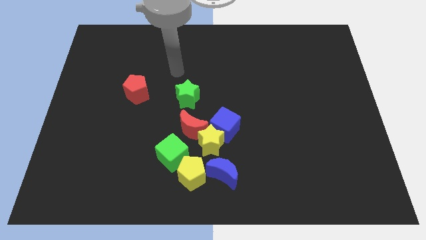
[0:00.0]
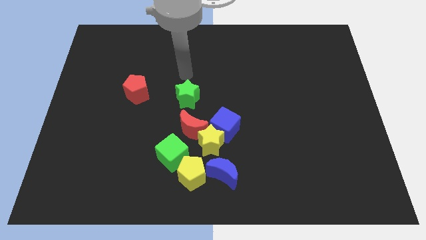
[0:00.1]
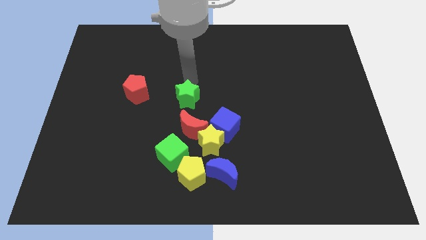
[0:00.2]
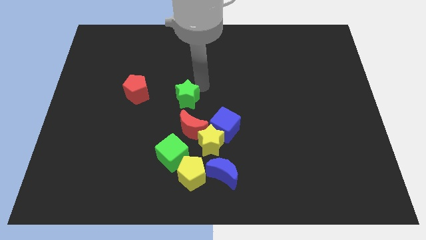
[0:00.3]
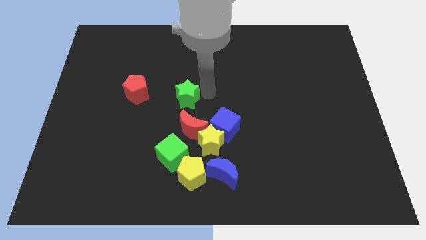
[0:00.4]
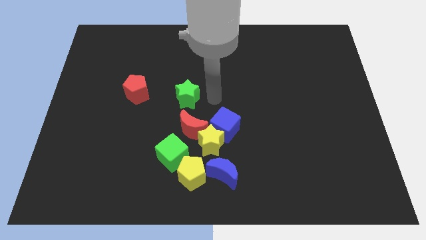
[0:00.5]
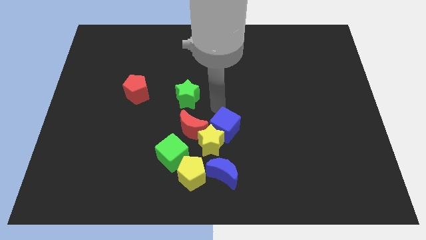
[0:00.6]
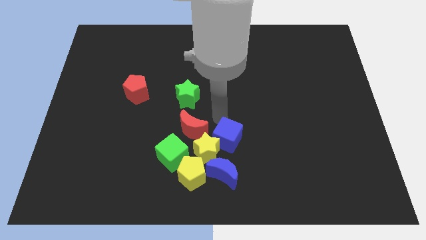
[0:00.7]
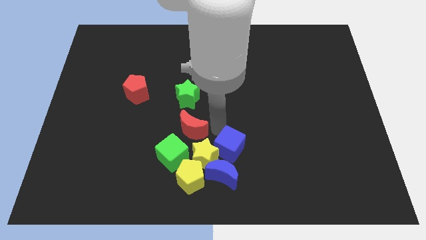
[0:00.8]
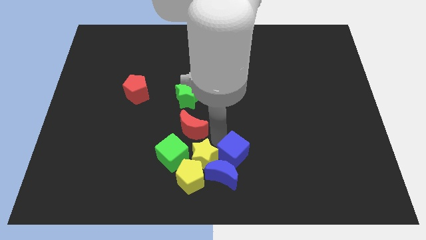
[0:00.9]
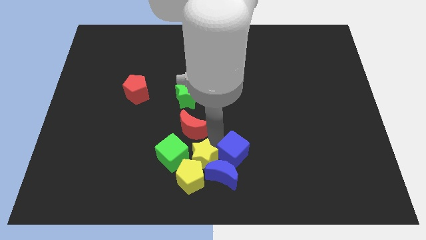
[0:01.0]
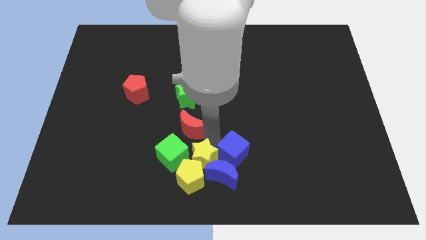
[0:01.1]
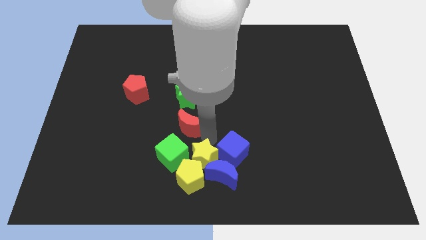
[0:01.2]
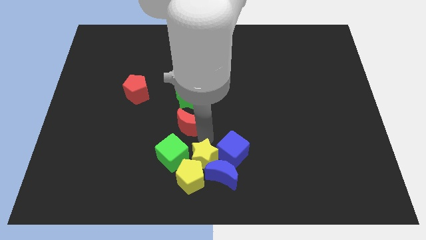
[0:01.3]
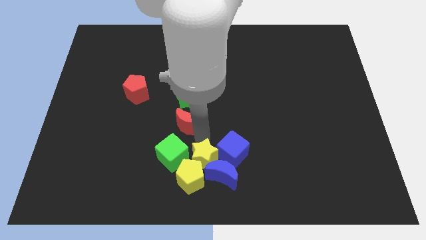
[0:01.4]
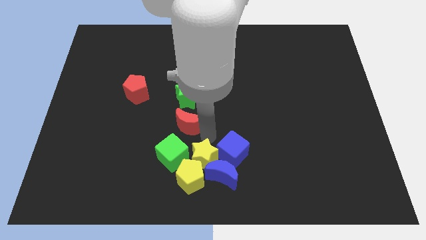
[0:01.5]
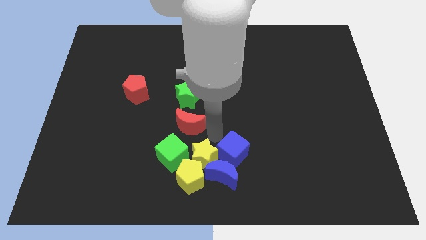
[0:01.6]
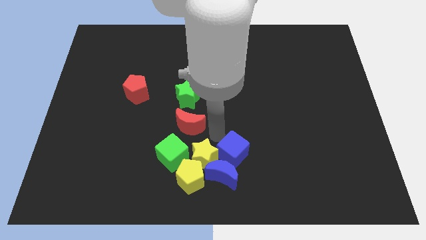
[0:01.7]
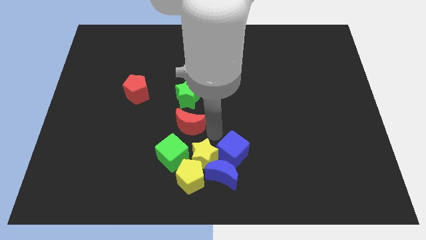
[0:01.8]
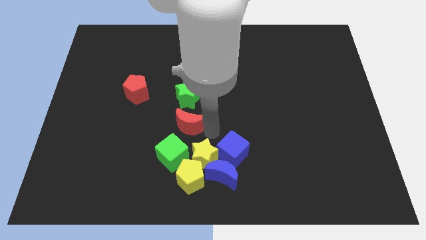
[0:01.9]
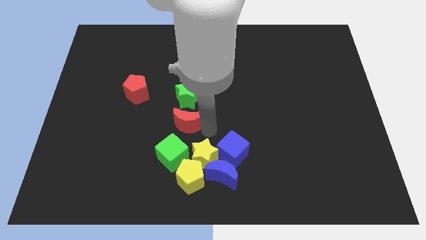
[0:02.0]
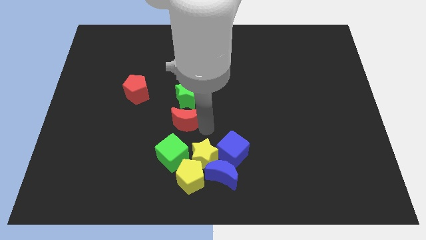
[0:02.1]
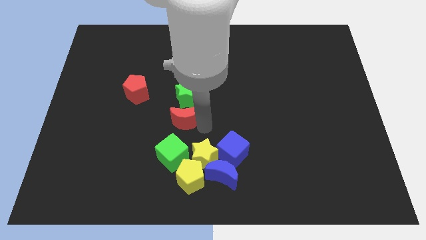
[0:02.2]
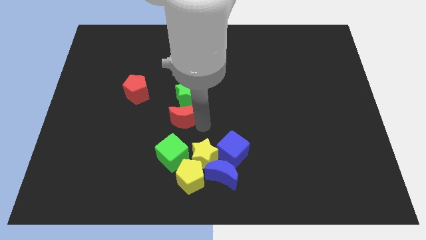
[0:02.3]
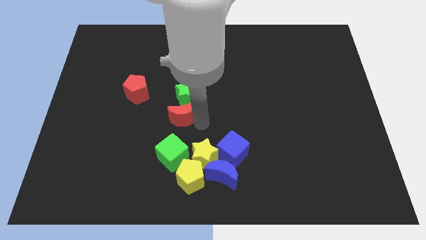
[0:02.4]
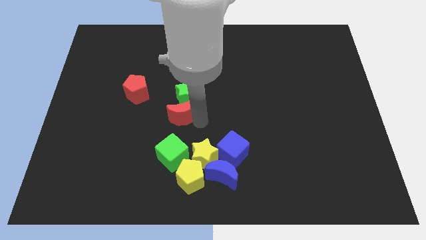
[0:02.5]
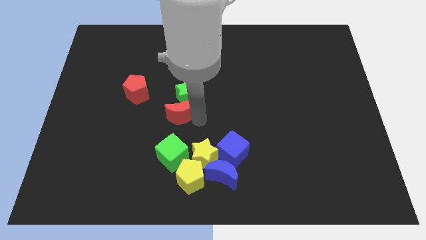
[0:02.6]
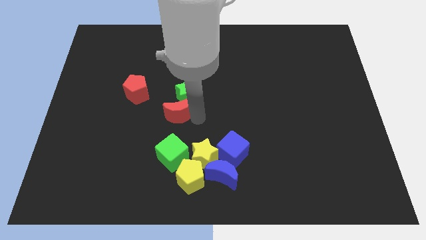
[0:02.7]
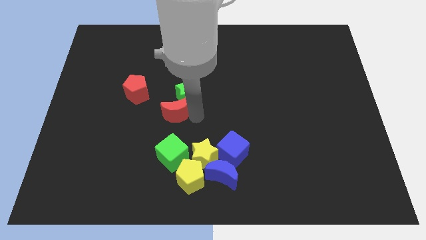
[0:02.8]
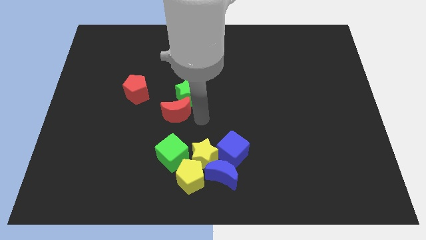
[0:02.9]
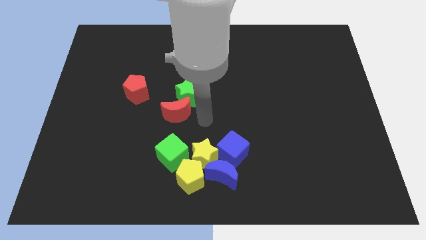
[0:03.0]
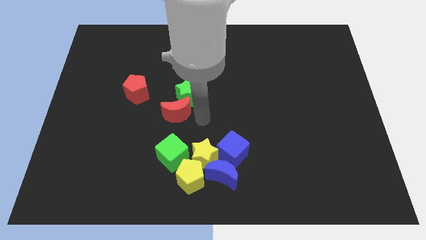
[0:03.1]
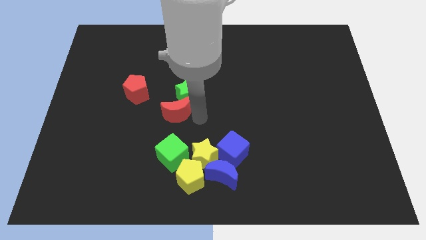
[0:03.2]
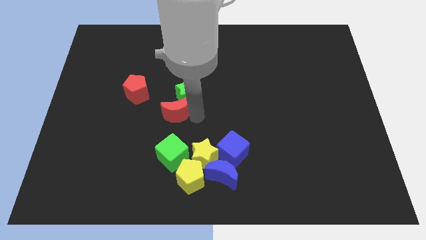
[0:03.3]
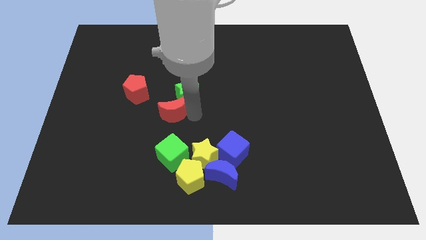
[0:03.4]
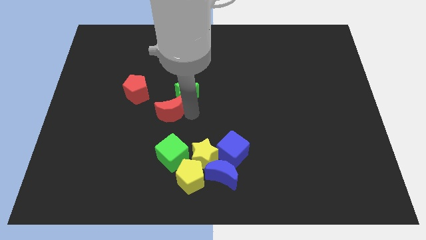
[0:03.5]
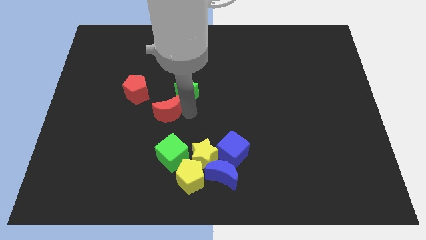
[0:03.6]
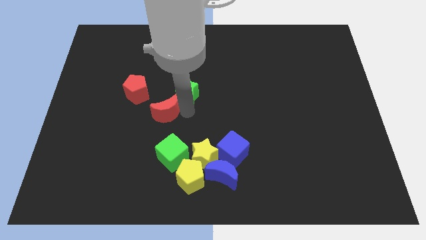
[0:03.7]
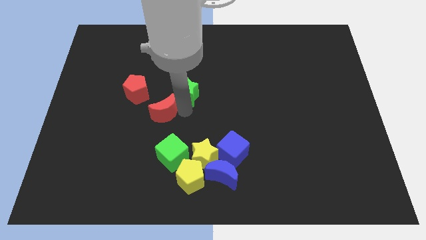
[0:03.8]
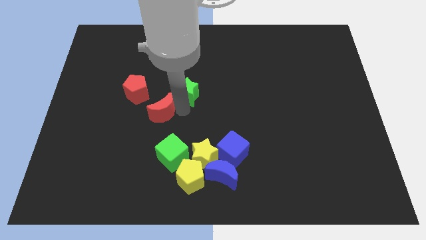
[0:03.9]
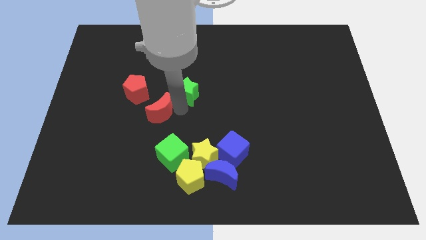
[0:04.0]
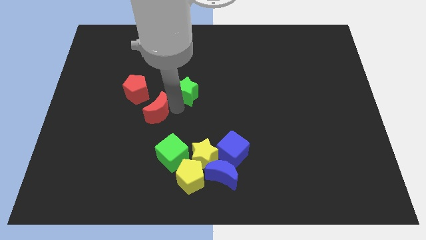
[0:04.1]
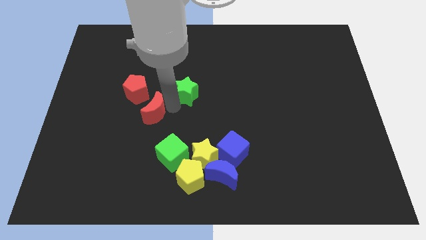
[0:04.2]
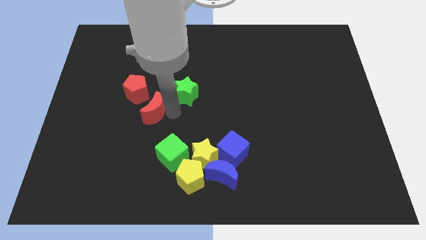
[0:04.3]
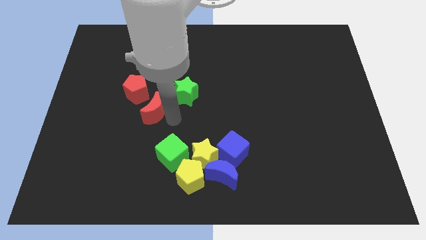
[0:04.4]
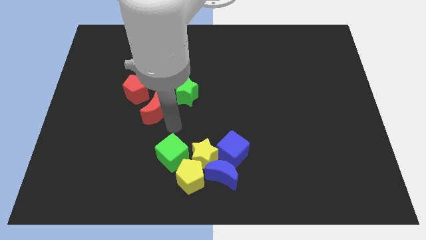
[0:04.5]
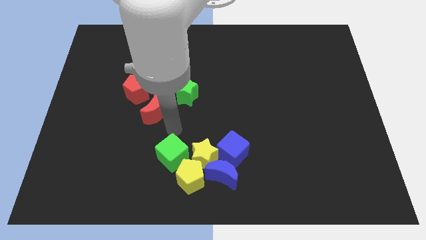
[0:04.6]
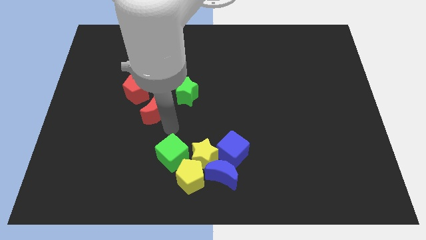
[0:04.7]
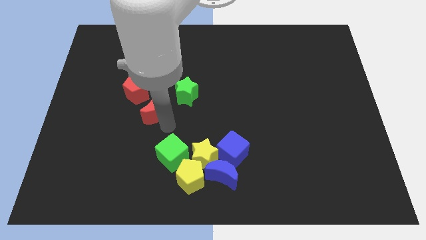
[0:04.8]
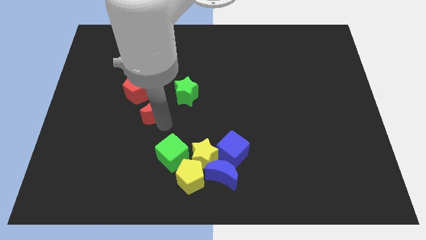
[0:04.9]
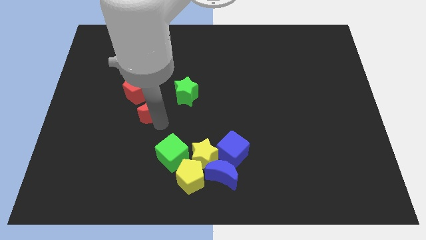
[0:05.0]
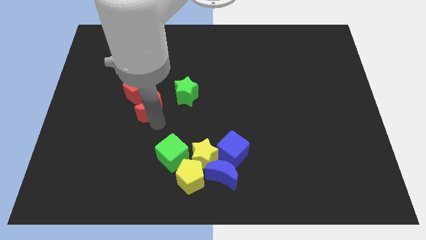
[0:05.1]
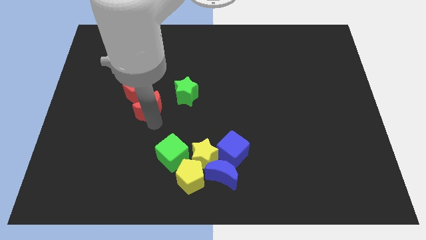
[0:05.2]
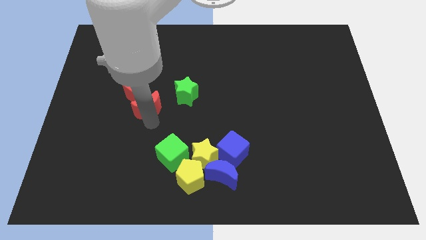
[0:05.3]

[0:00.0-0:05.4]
push the red moon next to the red pentagon

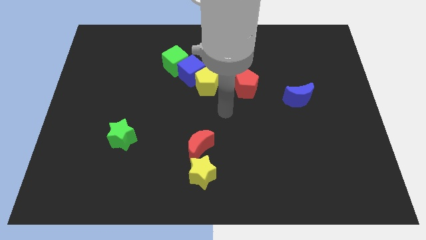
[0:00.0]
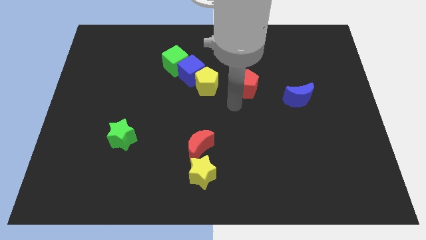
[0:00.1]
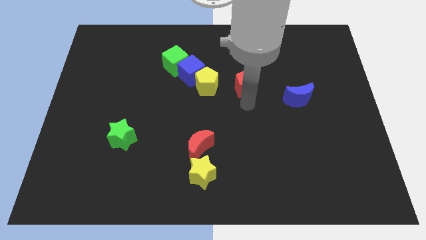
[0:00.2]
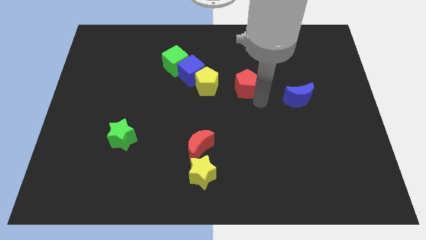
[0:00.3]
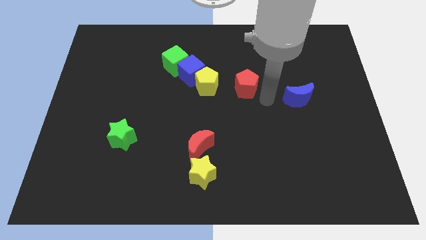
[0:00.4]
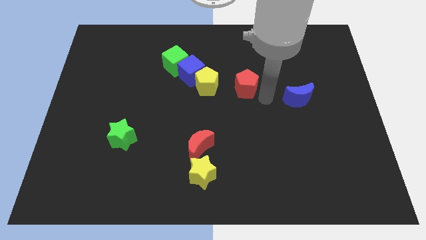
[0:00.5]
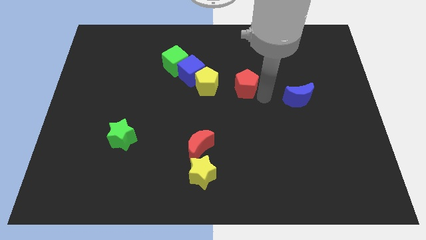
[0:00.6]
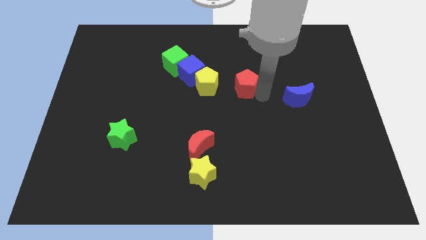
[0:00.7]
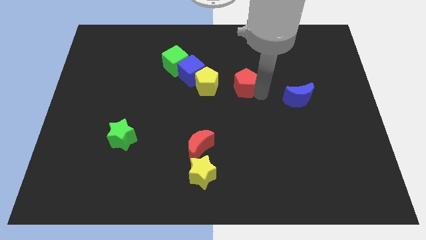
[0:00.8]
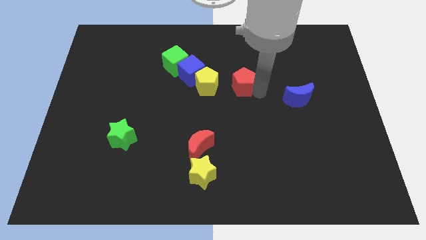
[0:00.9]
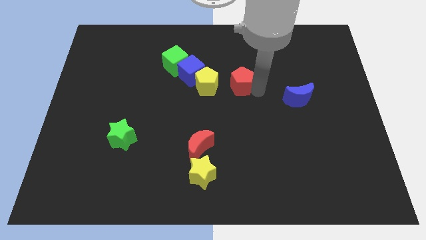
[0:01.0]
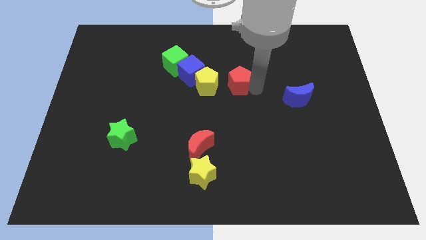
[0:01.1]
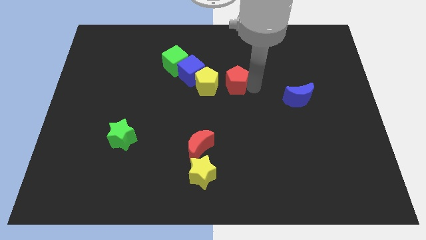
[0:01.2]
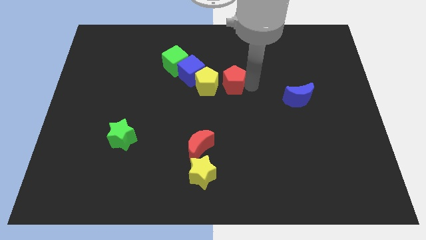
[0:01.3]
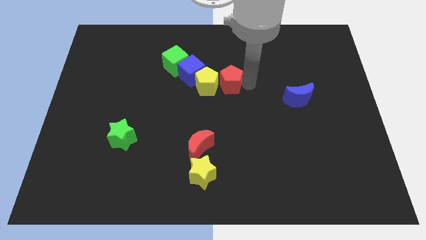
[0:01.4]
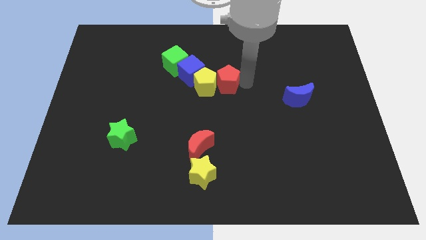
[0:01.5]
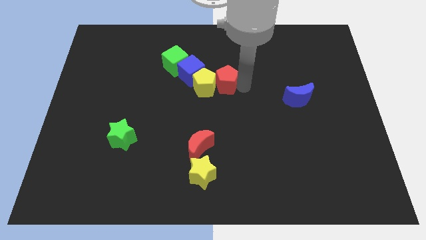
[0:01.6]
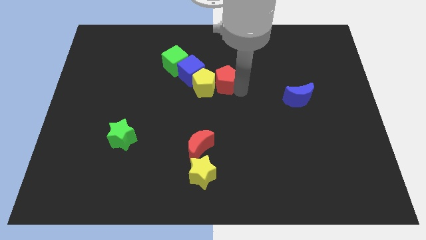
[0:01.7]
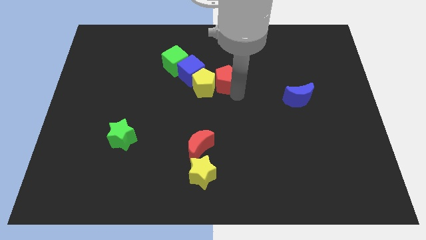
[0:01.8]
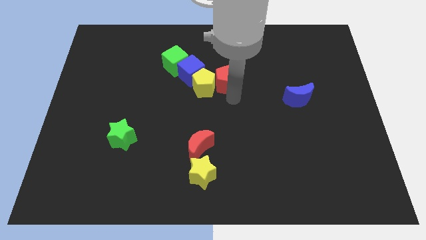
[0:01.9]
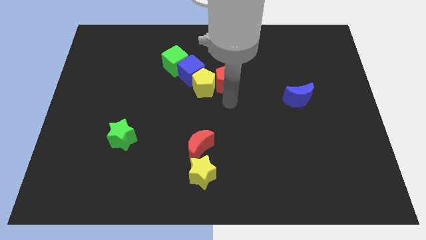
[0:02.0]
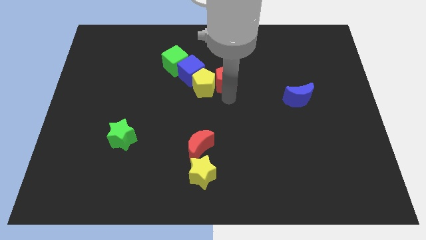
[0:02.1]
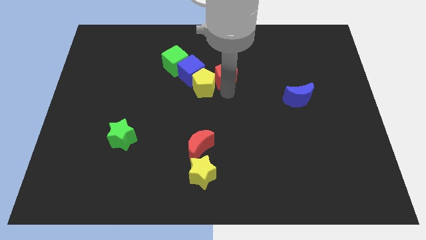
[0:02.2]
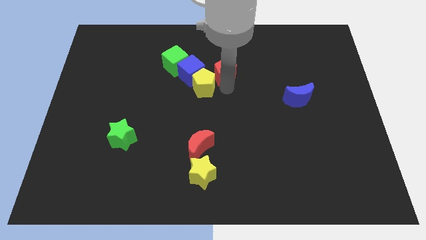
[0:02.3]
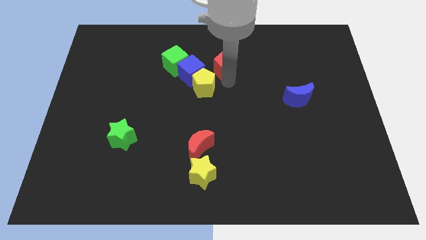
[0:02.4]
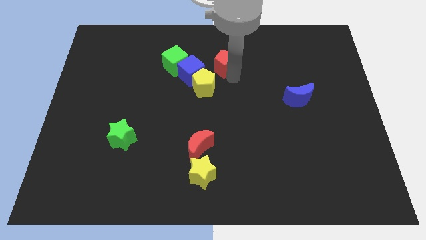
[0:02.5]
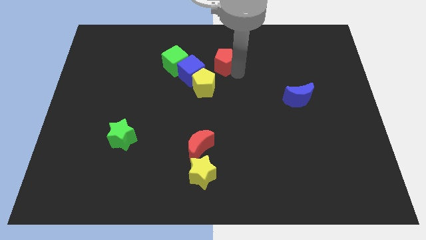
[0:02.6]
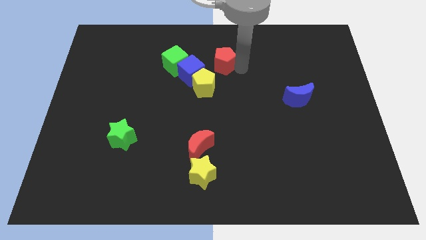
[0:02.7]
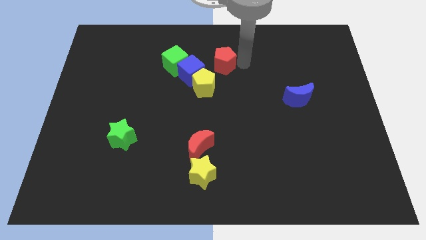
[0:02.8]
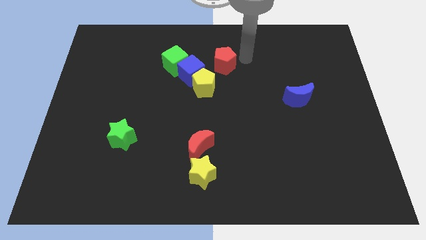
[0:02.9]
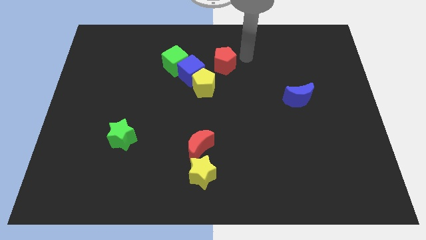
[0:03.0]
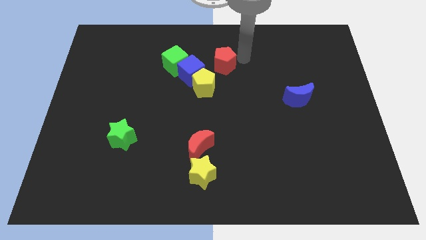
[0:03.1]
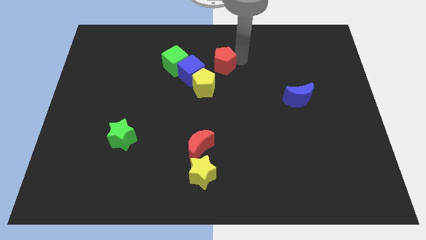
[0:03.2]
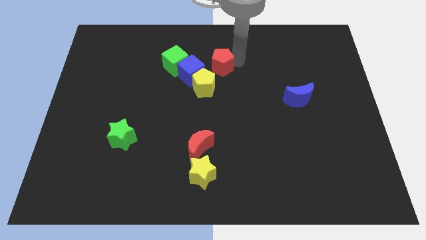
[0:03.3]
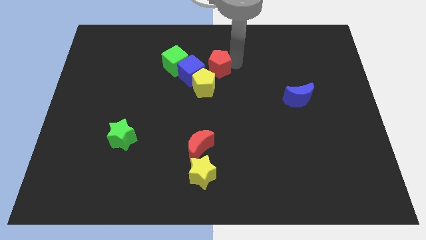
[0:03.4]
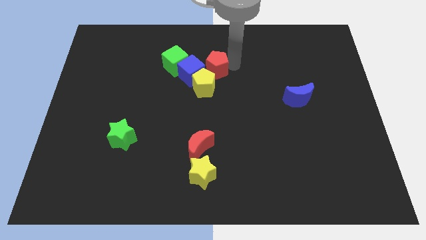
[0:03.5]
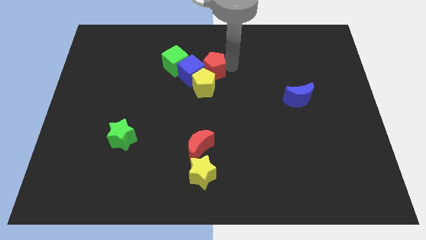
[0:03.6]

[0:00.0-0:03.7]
slide the red pentagon towards the blue cube
